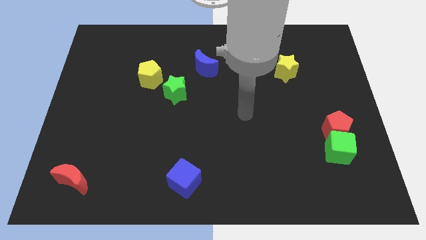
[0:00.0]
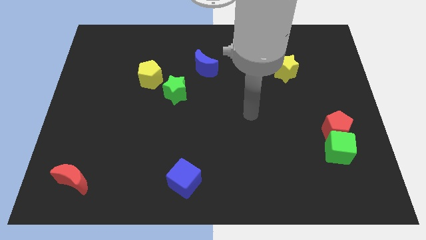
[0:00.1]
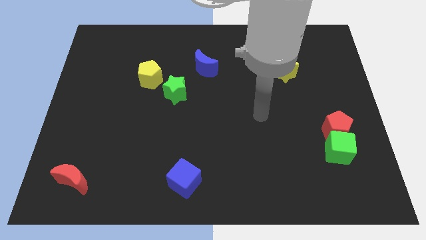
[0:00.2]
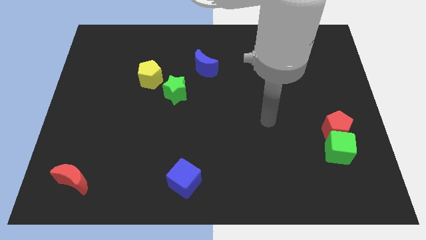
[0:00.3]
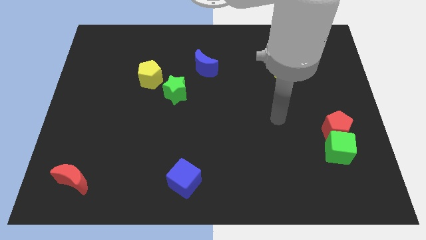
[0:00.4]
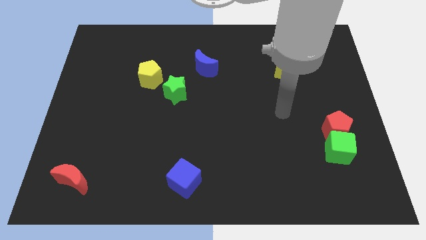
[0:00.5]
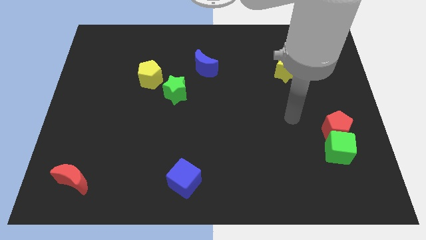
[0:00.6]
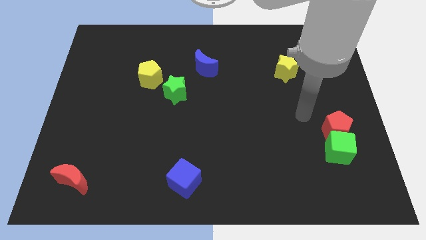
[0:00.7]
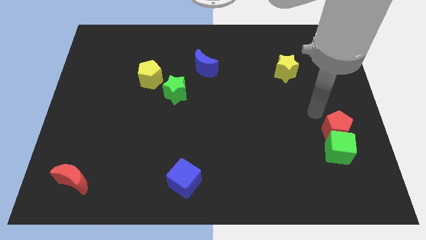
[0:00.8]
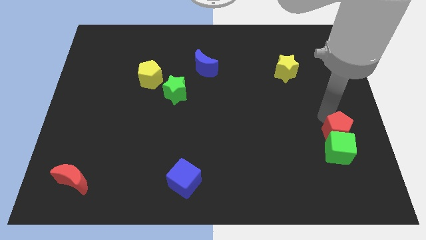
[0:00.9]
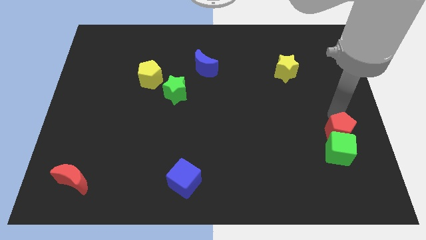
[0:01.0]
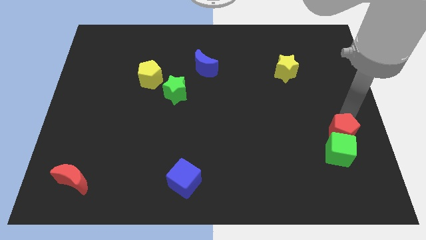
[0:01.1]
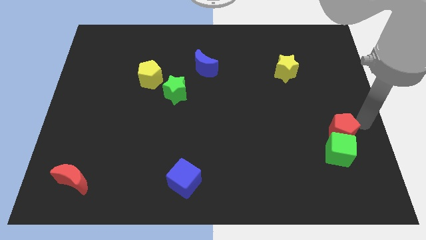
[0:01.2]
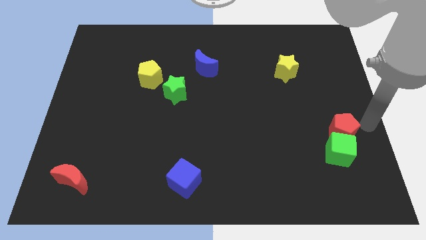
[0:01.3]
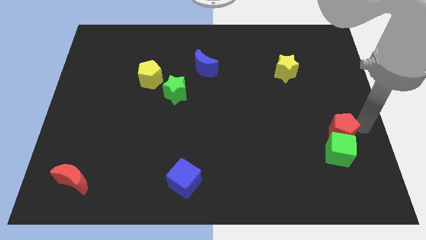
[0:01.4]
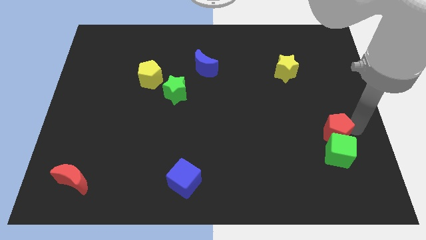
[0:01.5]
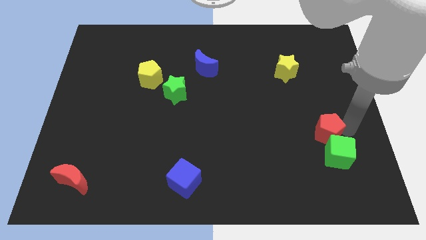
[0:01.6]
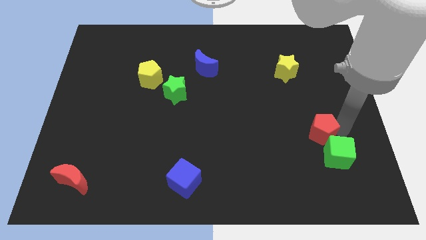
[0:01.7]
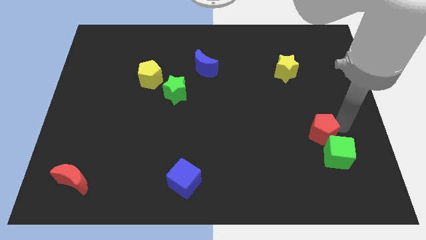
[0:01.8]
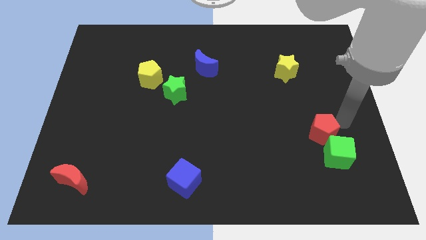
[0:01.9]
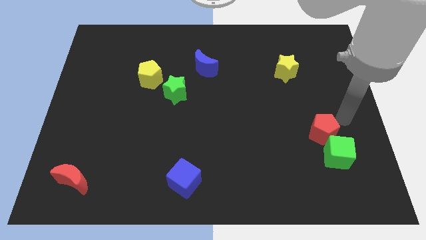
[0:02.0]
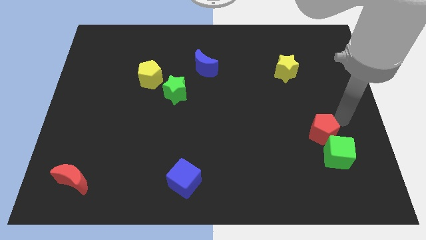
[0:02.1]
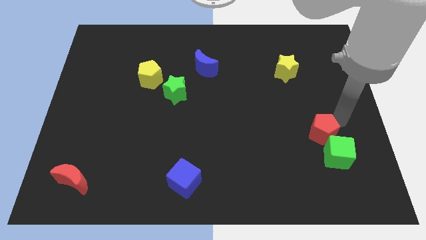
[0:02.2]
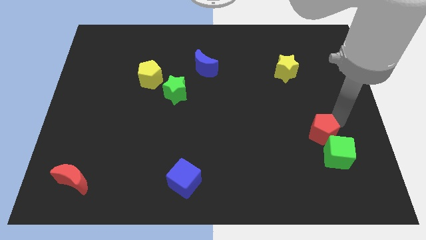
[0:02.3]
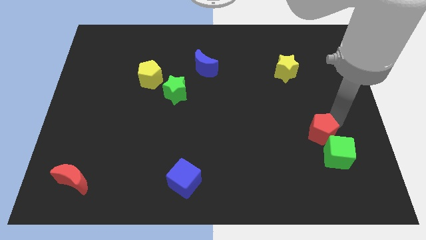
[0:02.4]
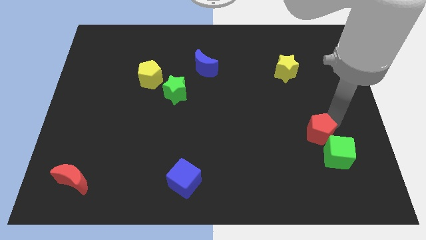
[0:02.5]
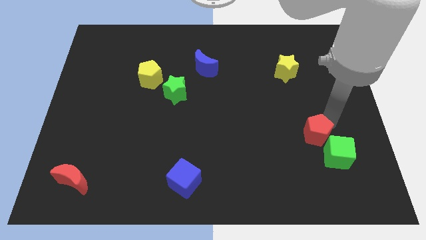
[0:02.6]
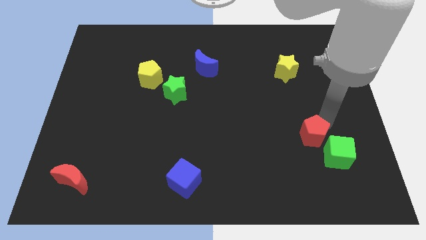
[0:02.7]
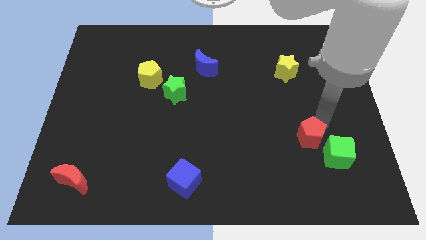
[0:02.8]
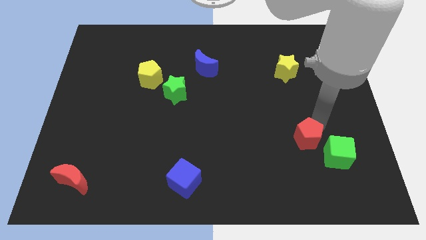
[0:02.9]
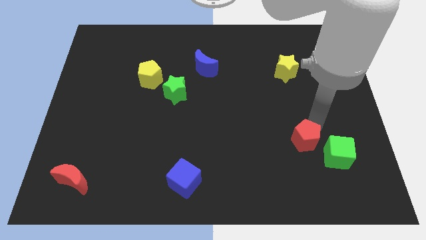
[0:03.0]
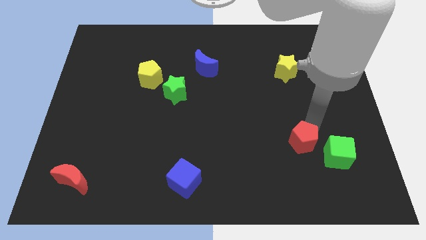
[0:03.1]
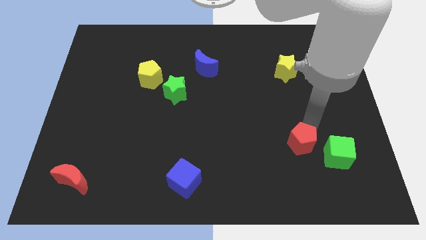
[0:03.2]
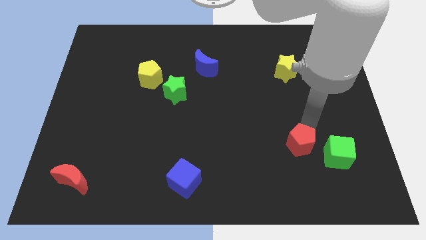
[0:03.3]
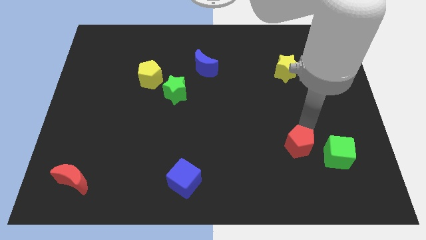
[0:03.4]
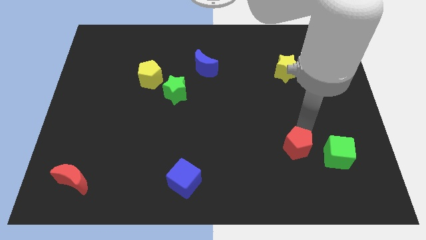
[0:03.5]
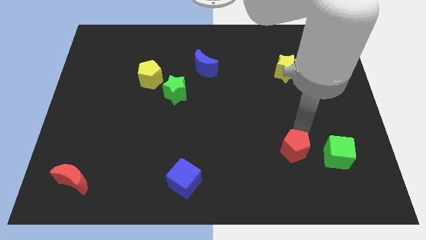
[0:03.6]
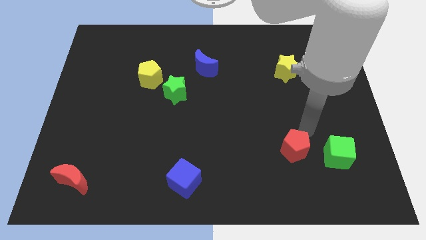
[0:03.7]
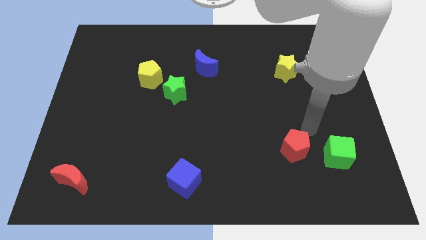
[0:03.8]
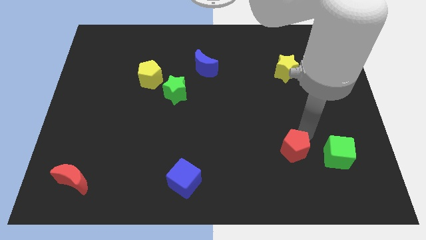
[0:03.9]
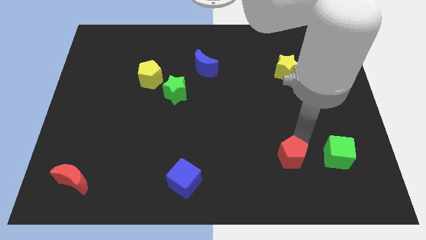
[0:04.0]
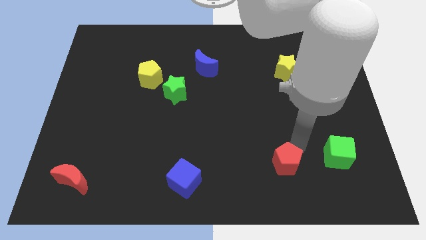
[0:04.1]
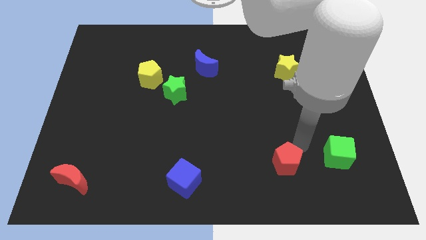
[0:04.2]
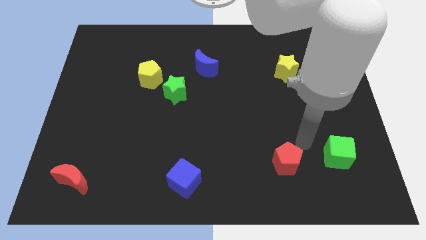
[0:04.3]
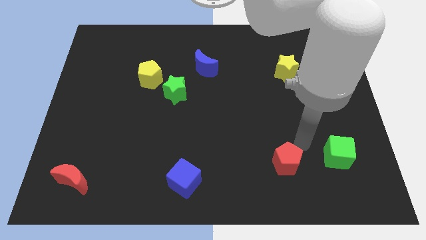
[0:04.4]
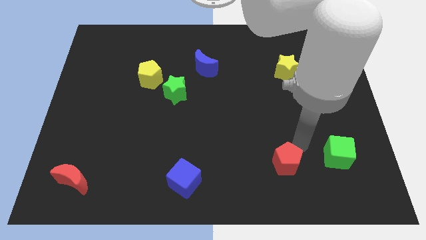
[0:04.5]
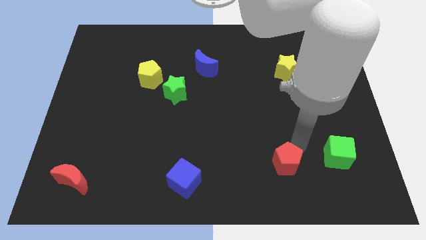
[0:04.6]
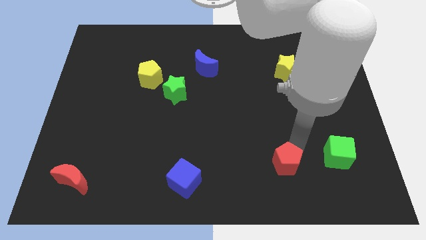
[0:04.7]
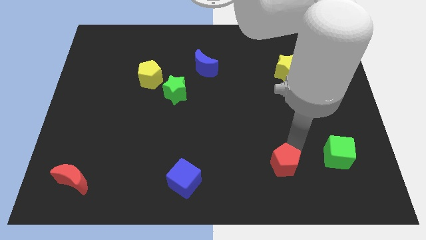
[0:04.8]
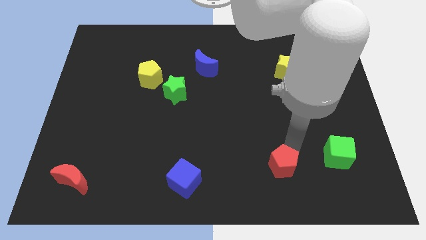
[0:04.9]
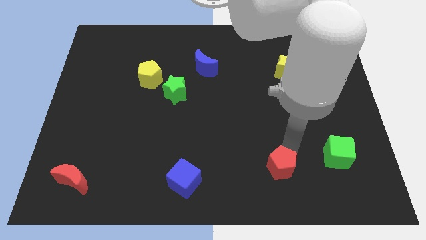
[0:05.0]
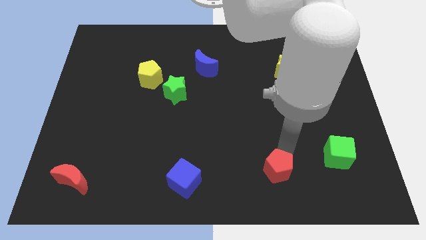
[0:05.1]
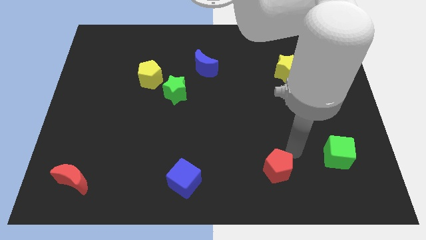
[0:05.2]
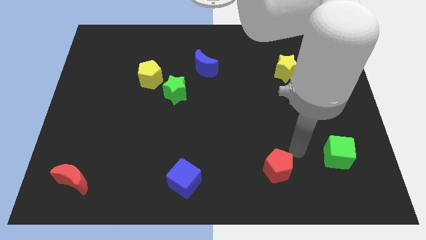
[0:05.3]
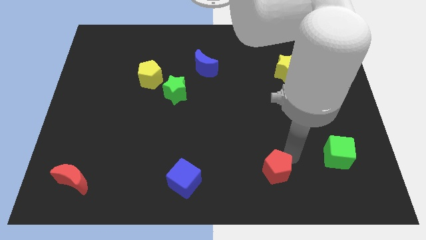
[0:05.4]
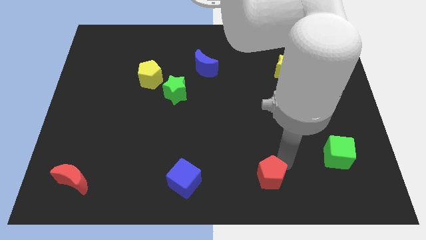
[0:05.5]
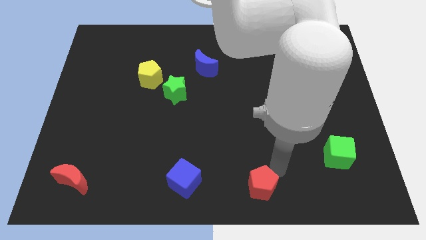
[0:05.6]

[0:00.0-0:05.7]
put the red pentagon to the bottom side

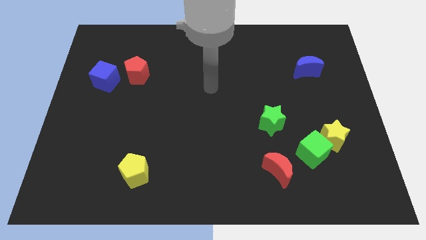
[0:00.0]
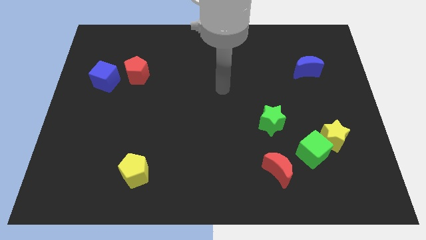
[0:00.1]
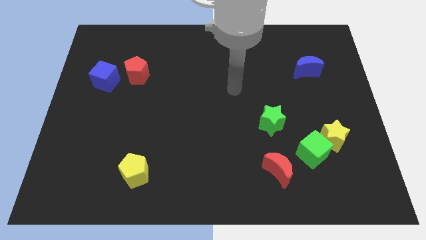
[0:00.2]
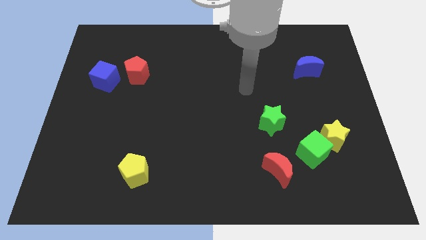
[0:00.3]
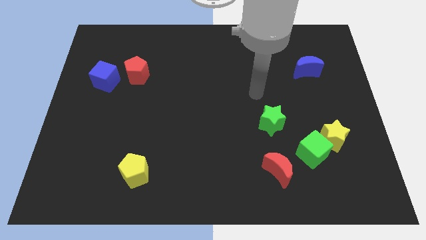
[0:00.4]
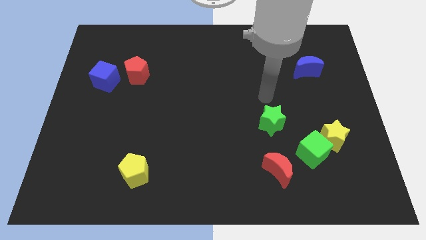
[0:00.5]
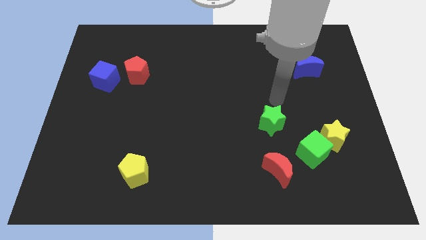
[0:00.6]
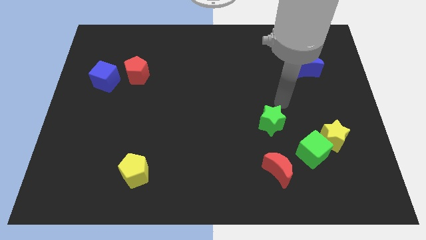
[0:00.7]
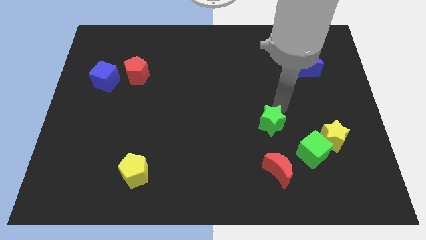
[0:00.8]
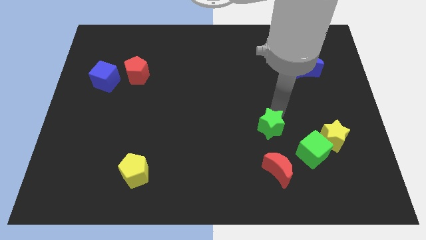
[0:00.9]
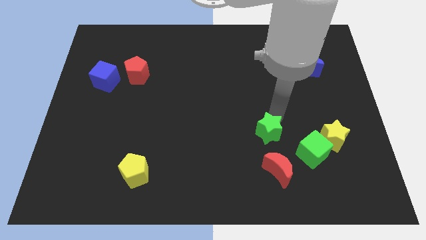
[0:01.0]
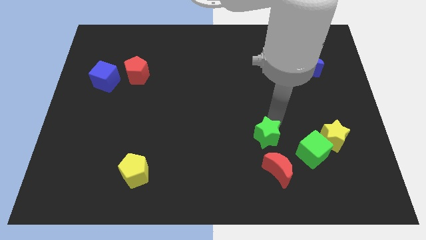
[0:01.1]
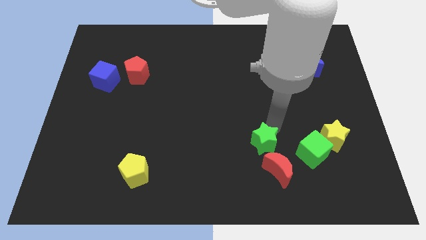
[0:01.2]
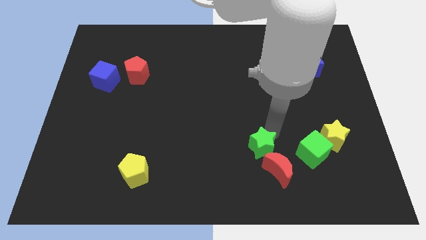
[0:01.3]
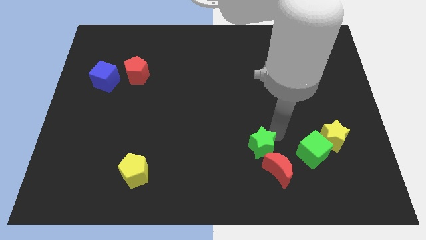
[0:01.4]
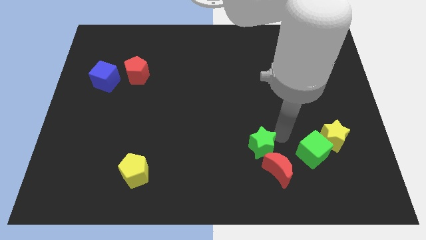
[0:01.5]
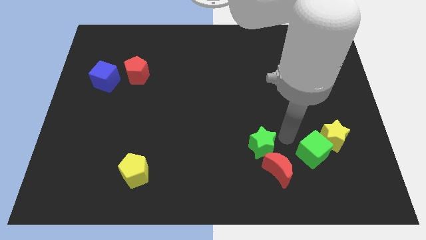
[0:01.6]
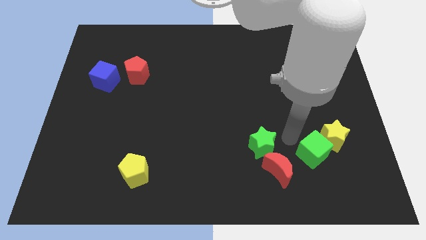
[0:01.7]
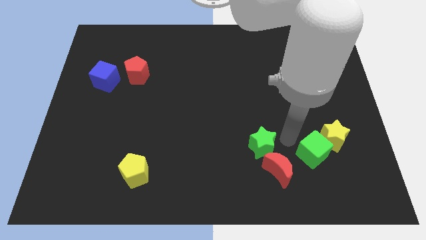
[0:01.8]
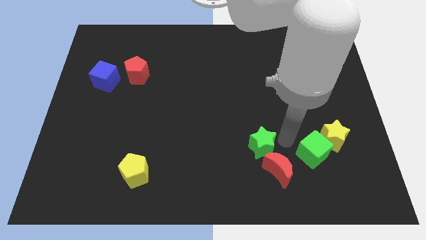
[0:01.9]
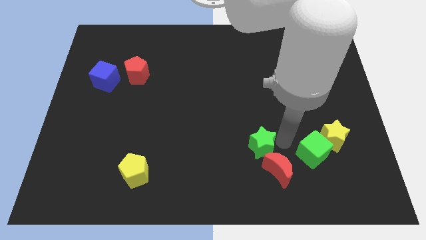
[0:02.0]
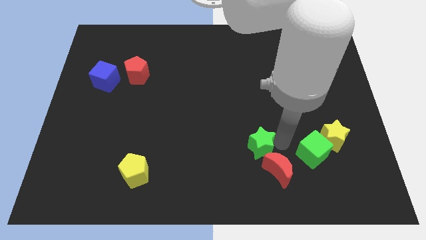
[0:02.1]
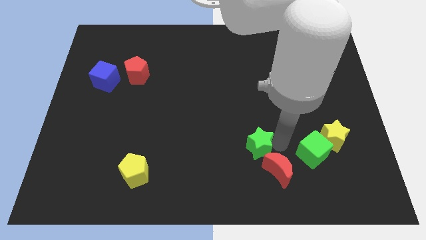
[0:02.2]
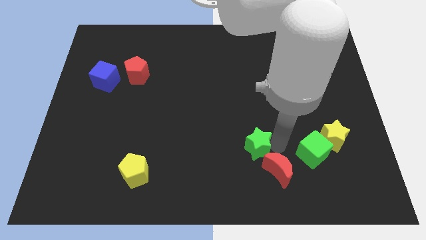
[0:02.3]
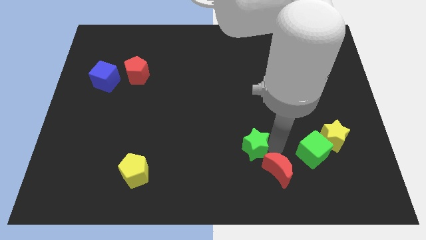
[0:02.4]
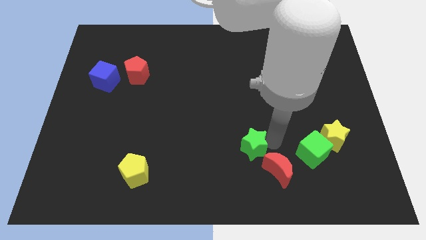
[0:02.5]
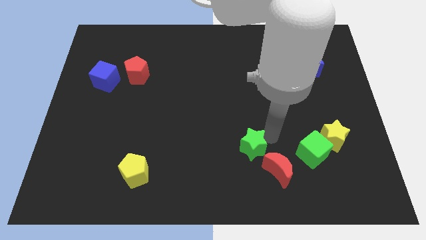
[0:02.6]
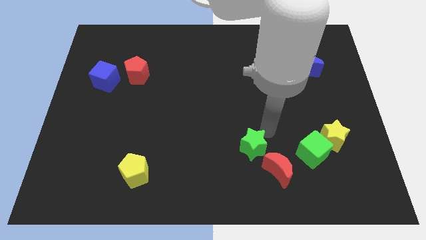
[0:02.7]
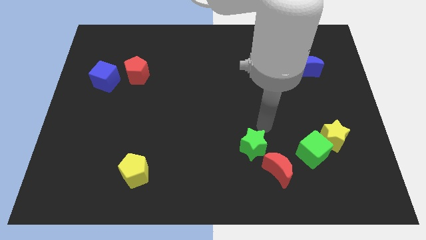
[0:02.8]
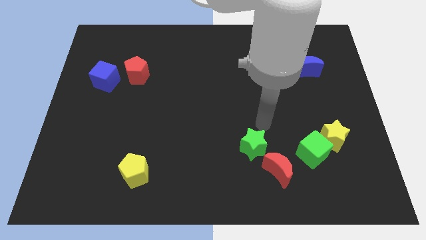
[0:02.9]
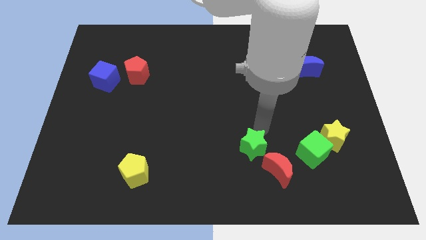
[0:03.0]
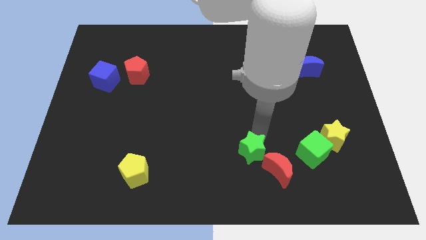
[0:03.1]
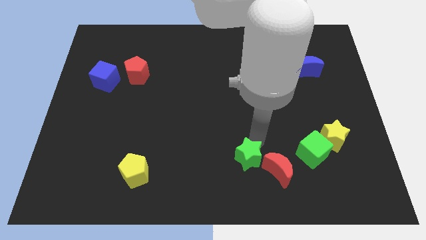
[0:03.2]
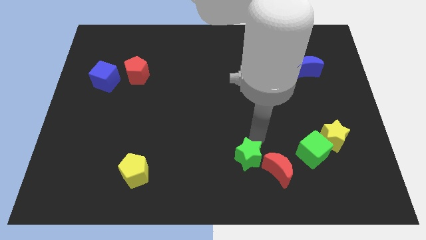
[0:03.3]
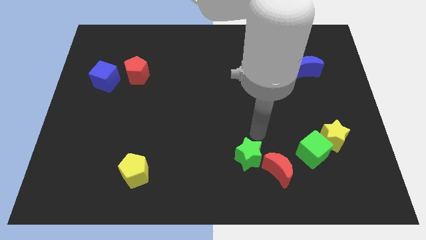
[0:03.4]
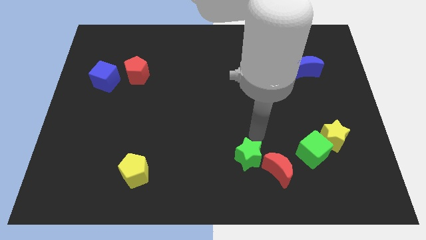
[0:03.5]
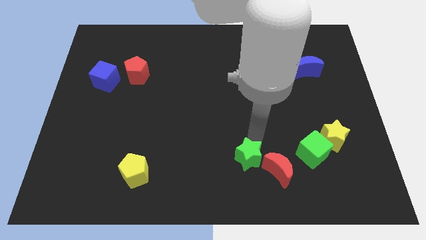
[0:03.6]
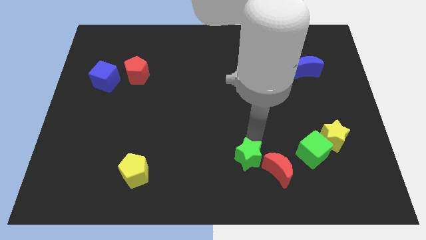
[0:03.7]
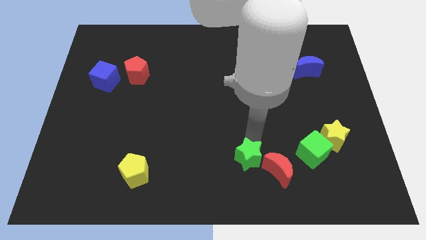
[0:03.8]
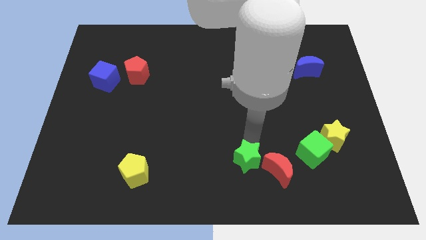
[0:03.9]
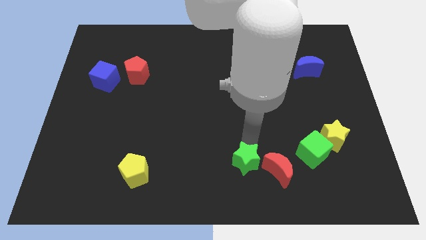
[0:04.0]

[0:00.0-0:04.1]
slide the green star to the bottom side
